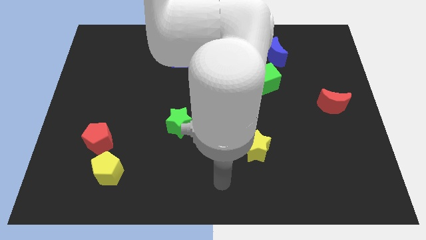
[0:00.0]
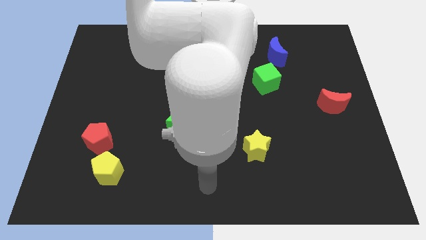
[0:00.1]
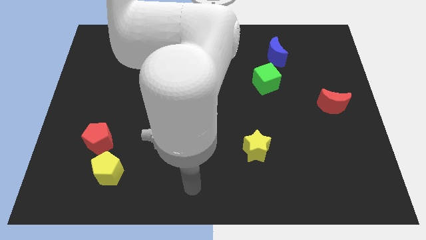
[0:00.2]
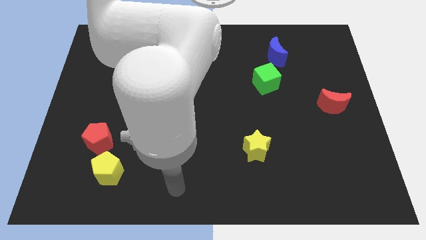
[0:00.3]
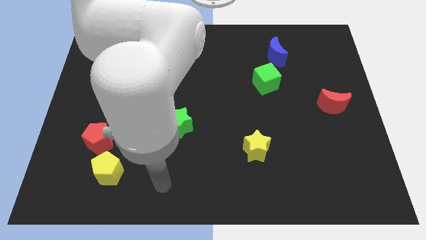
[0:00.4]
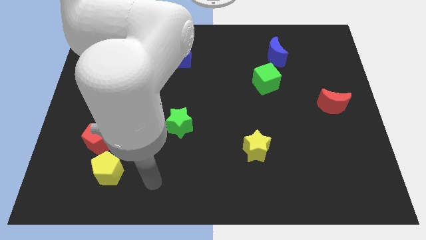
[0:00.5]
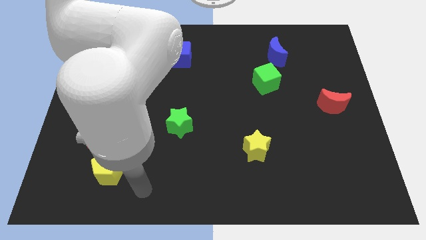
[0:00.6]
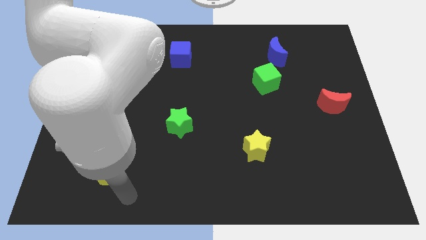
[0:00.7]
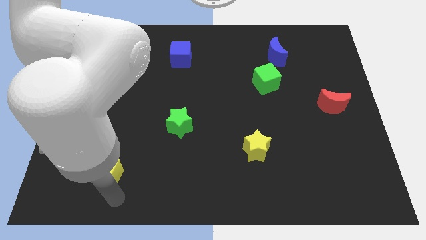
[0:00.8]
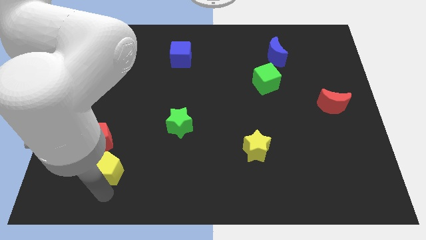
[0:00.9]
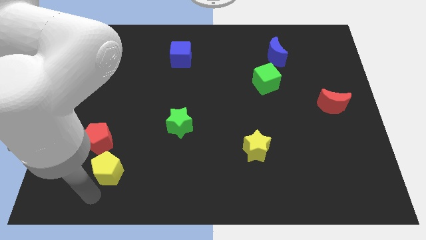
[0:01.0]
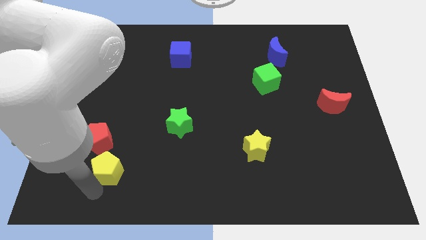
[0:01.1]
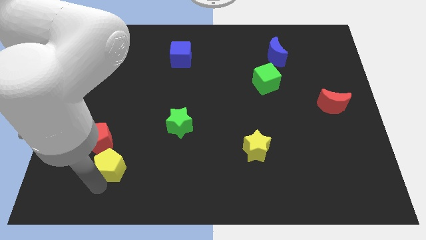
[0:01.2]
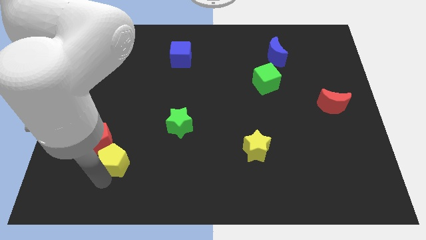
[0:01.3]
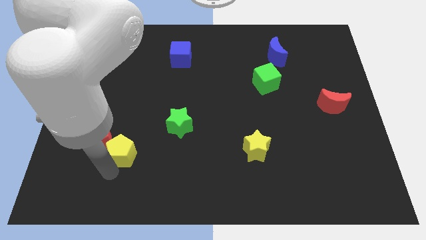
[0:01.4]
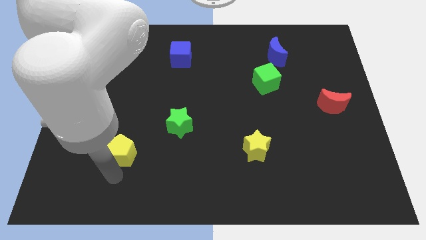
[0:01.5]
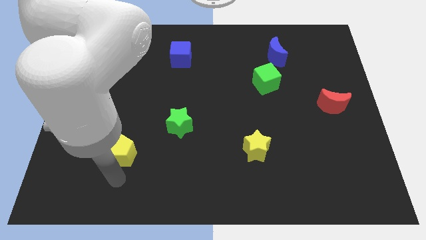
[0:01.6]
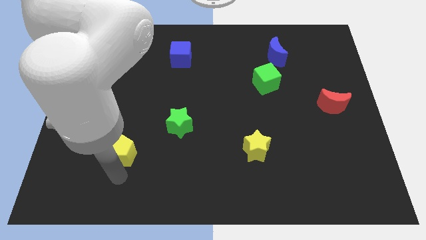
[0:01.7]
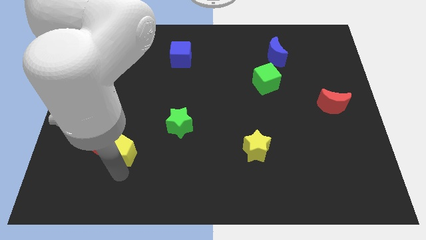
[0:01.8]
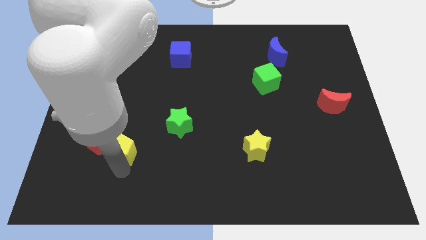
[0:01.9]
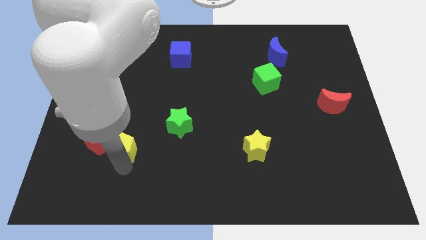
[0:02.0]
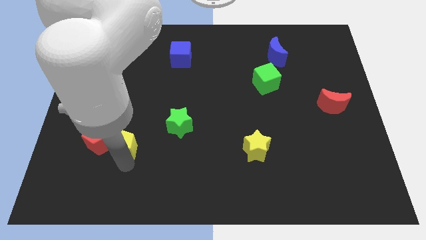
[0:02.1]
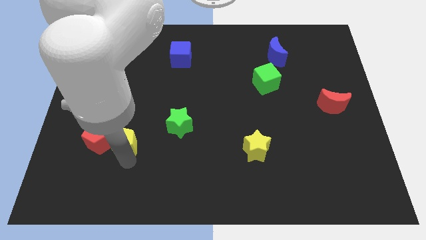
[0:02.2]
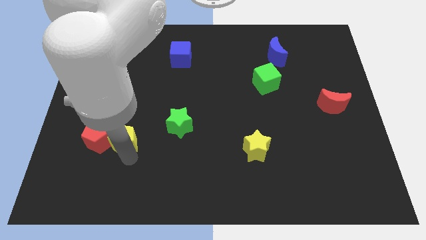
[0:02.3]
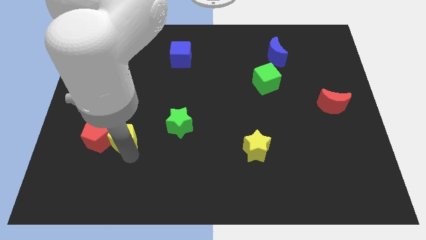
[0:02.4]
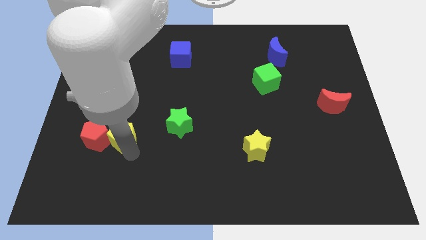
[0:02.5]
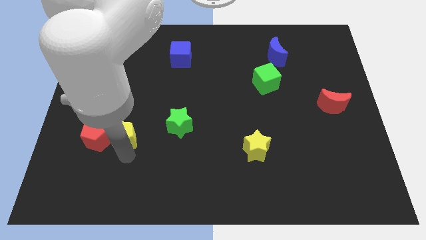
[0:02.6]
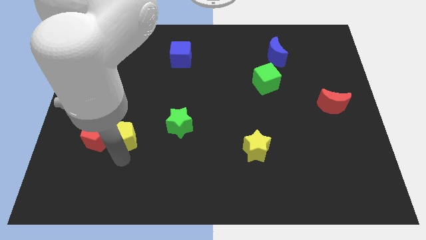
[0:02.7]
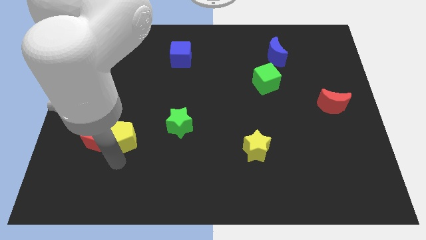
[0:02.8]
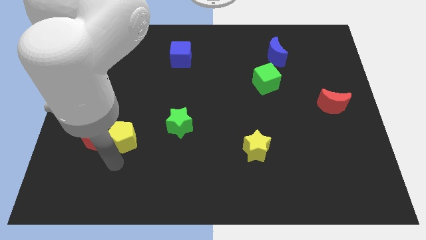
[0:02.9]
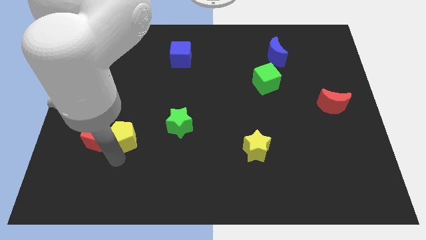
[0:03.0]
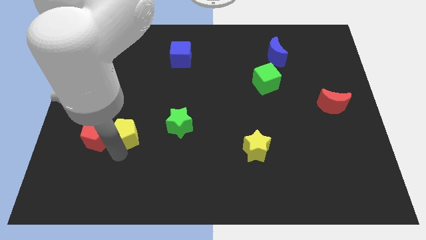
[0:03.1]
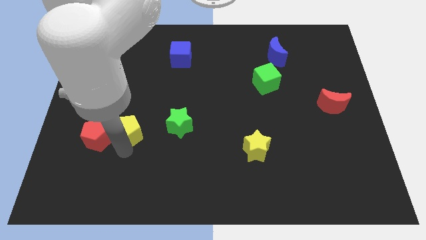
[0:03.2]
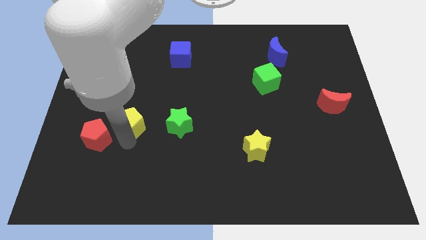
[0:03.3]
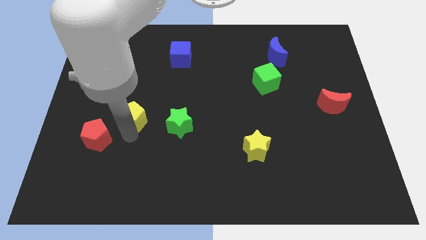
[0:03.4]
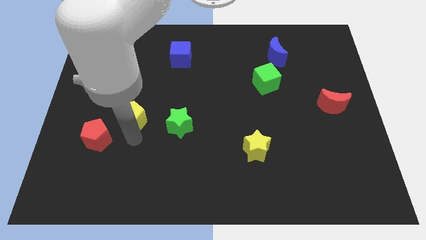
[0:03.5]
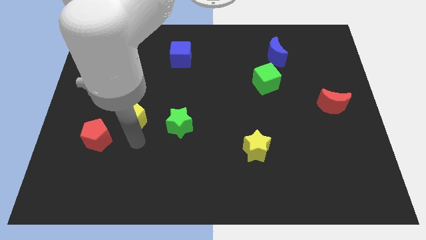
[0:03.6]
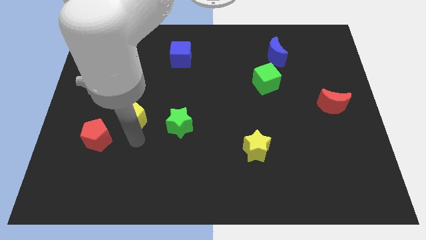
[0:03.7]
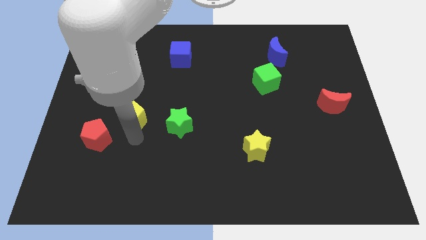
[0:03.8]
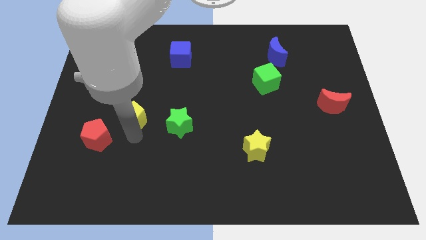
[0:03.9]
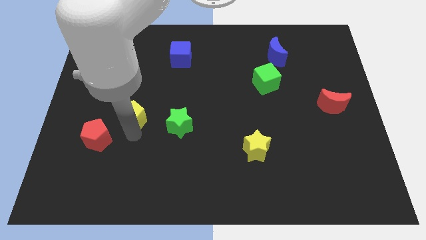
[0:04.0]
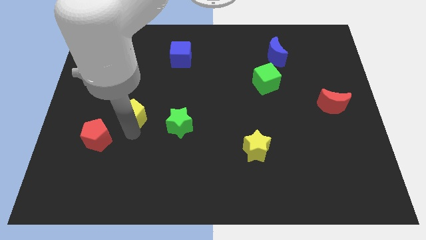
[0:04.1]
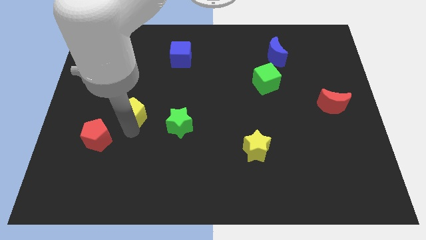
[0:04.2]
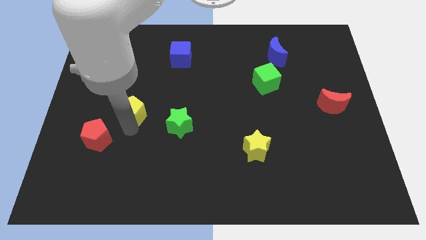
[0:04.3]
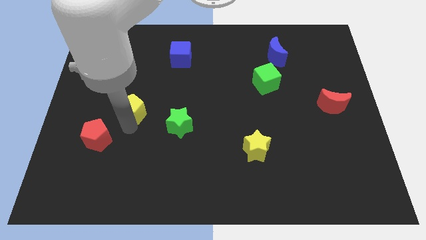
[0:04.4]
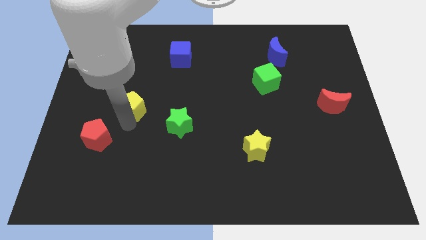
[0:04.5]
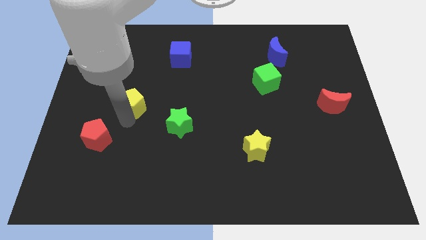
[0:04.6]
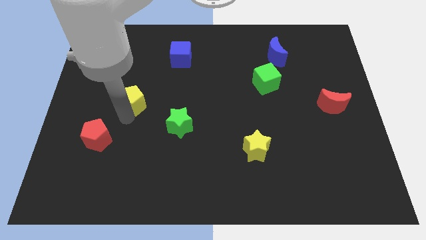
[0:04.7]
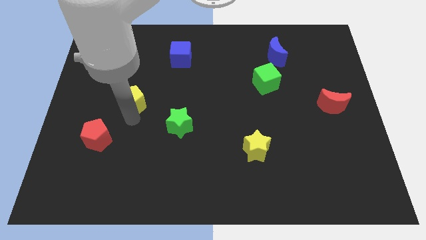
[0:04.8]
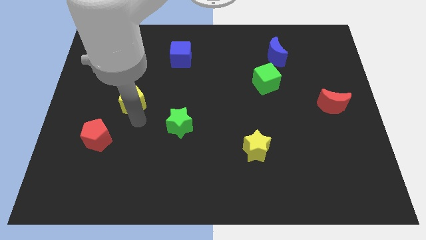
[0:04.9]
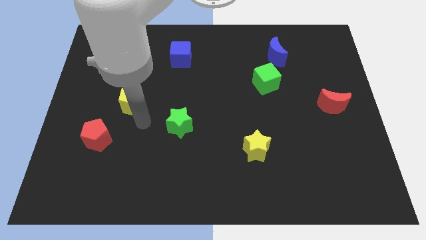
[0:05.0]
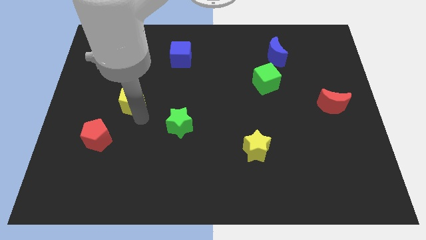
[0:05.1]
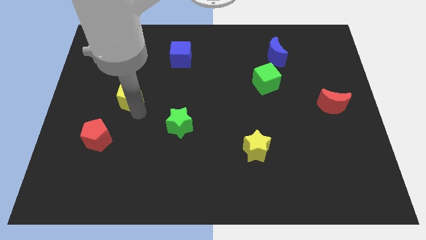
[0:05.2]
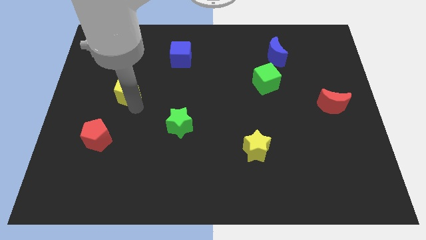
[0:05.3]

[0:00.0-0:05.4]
move the yellow pentagon upwards

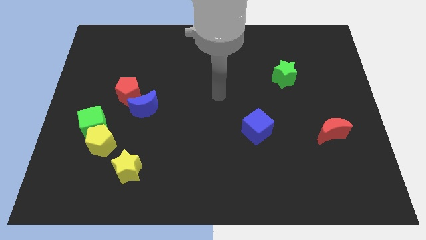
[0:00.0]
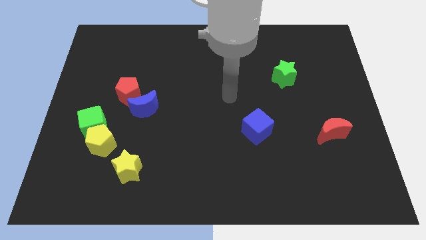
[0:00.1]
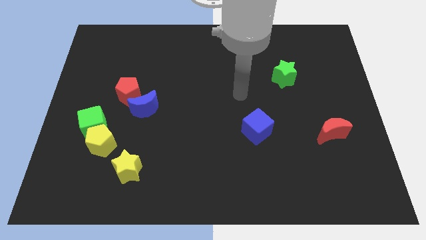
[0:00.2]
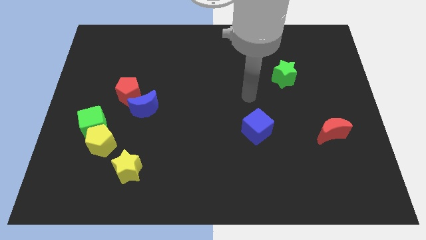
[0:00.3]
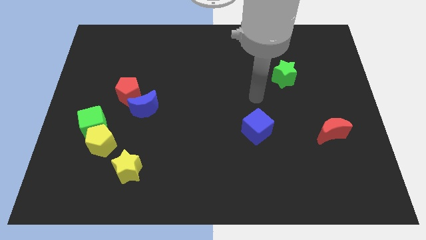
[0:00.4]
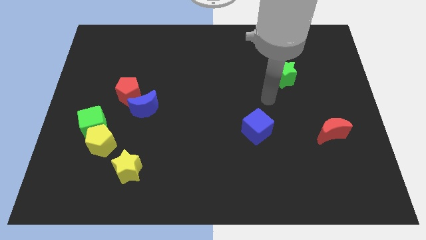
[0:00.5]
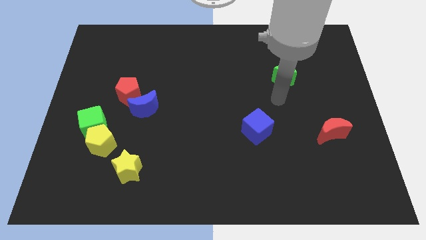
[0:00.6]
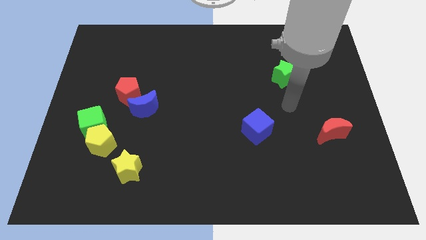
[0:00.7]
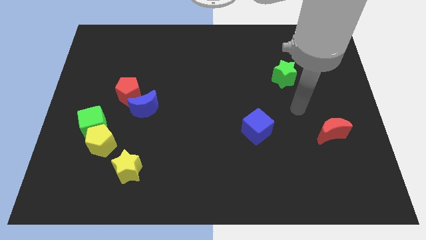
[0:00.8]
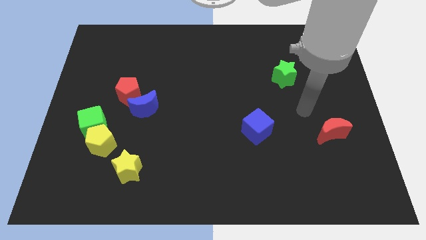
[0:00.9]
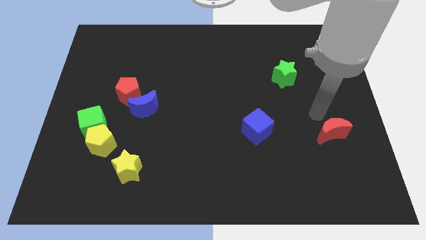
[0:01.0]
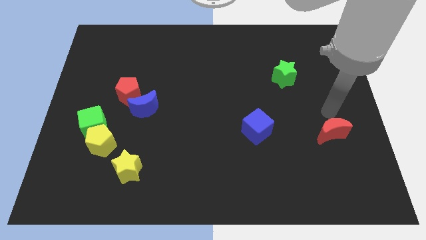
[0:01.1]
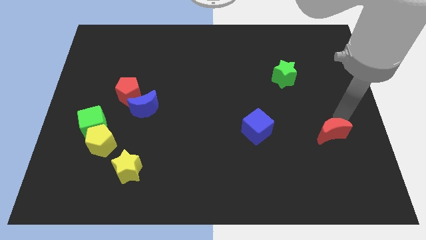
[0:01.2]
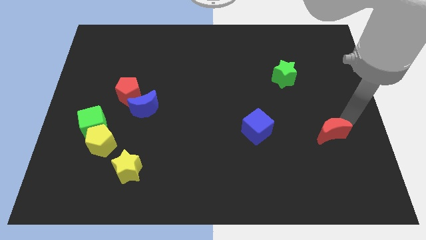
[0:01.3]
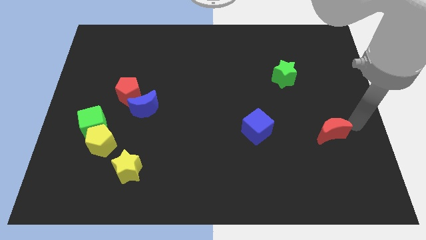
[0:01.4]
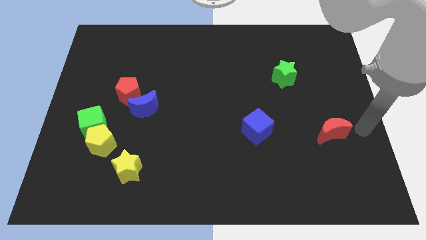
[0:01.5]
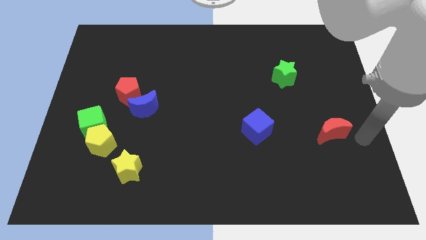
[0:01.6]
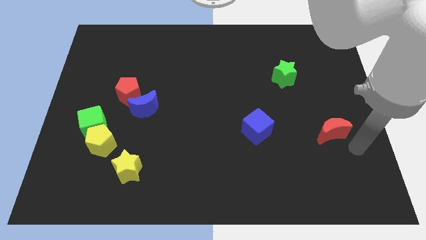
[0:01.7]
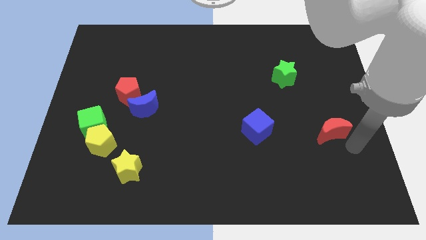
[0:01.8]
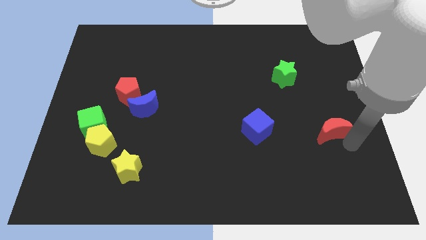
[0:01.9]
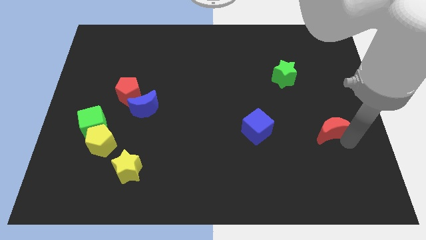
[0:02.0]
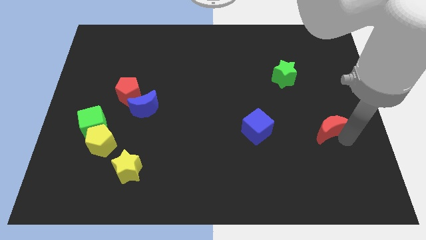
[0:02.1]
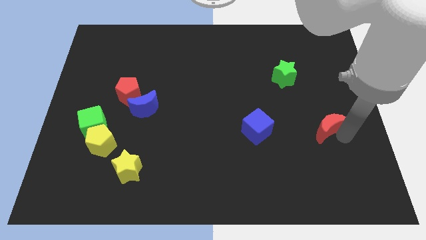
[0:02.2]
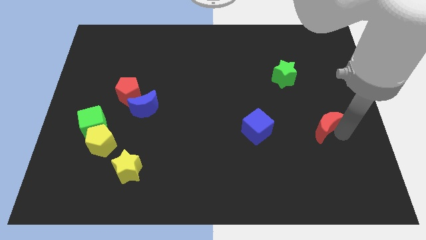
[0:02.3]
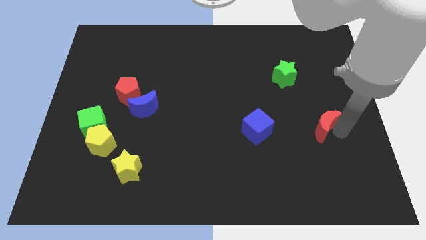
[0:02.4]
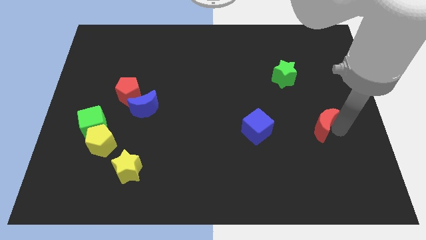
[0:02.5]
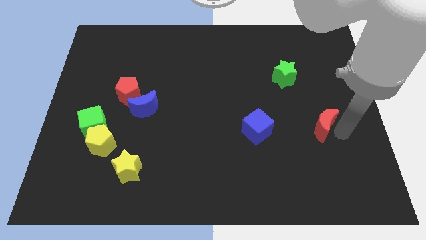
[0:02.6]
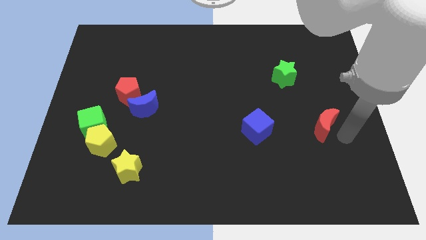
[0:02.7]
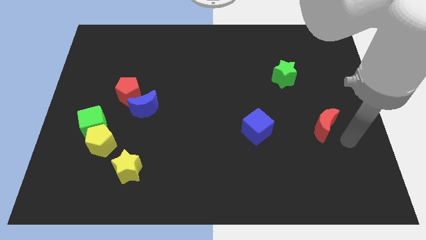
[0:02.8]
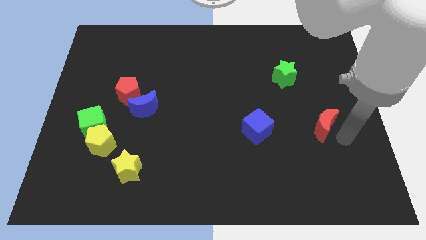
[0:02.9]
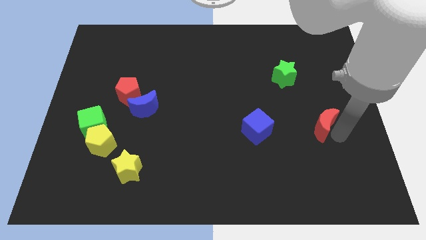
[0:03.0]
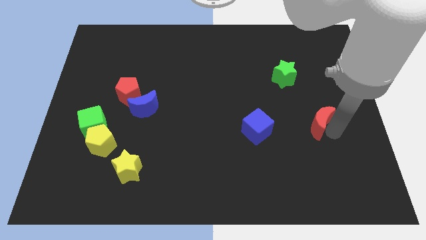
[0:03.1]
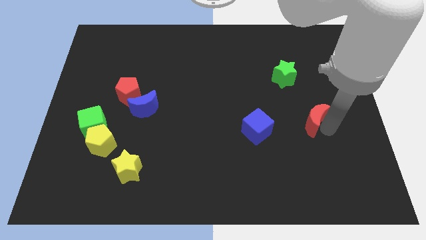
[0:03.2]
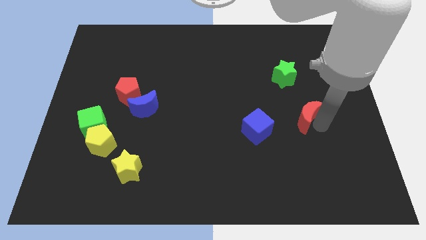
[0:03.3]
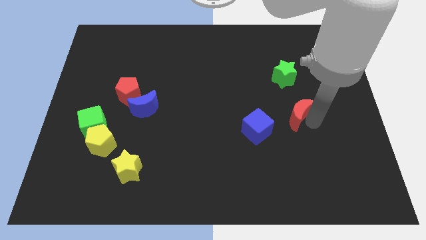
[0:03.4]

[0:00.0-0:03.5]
slide the red moon a little bit up and then to the left
